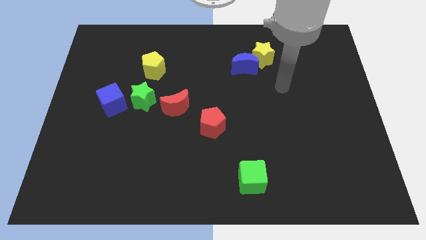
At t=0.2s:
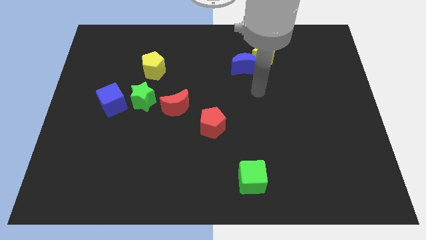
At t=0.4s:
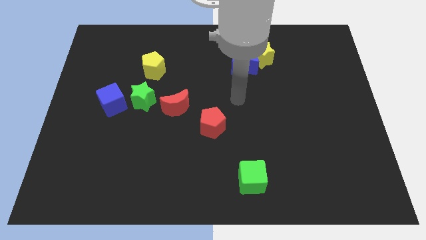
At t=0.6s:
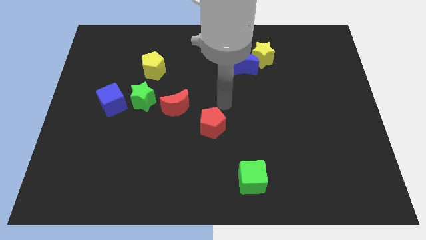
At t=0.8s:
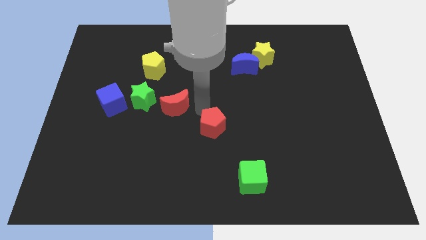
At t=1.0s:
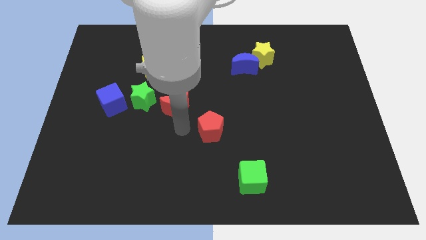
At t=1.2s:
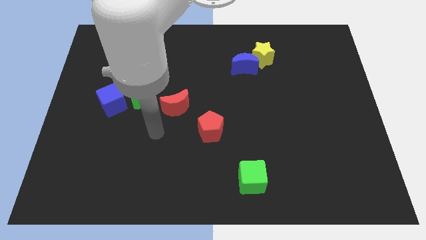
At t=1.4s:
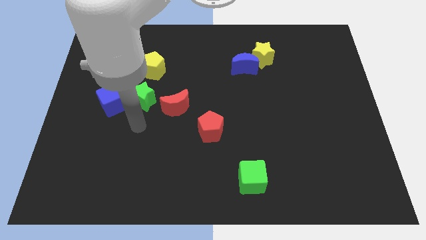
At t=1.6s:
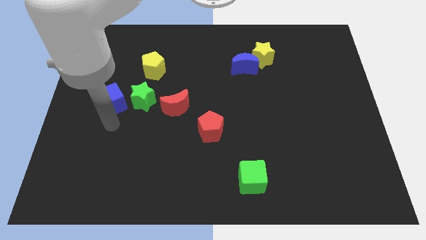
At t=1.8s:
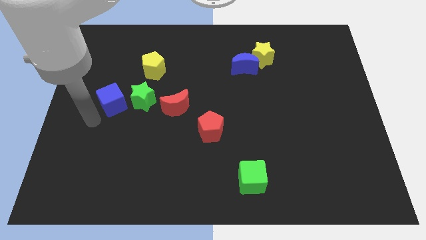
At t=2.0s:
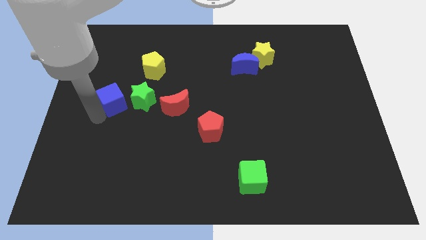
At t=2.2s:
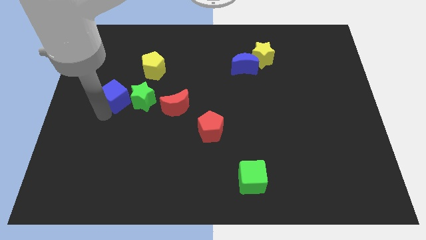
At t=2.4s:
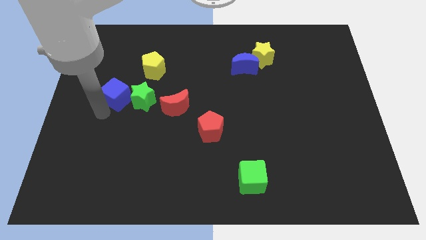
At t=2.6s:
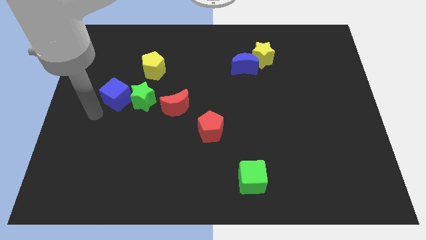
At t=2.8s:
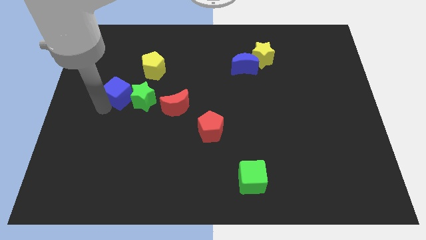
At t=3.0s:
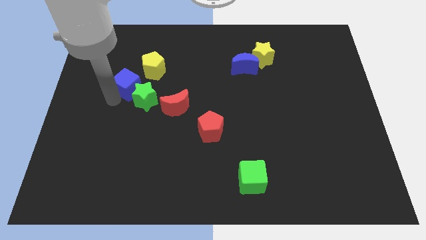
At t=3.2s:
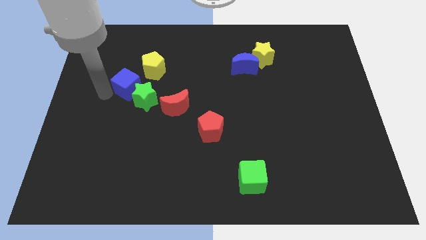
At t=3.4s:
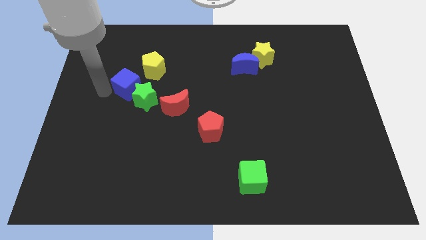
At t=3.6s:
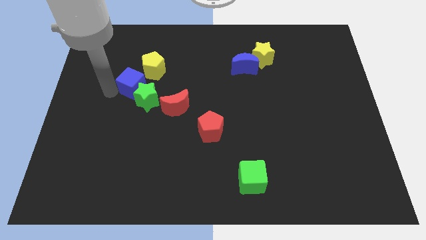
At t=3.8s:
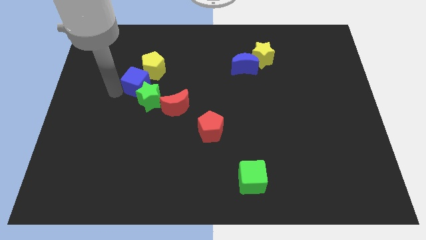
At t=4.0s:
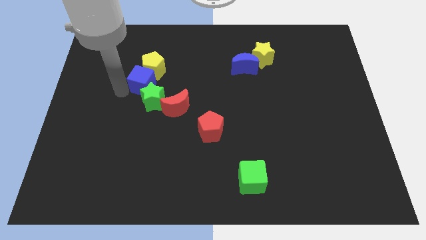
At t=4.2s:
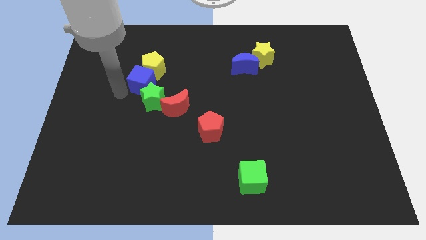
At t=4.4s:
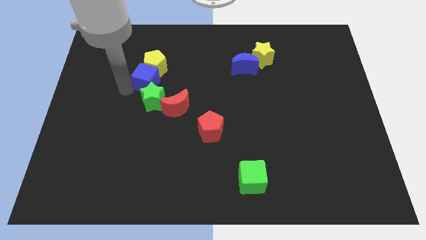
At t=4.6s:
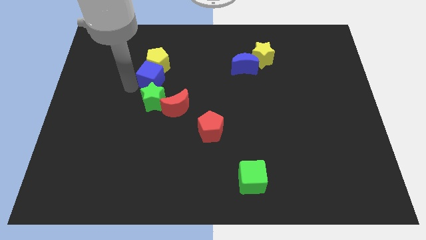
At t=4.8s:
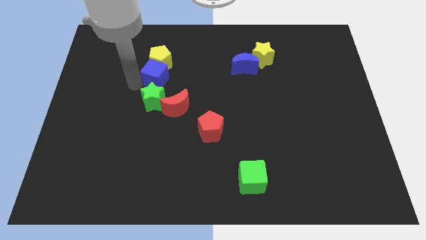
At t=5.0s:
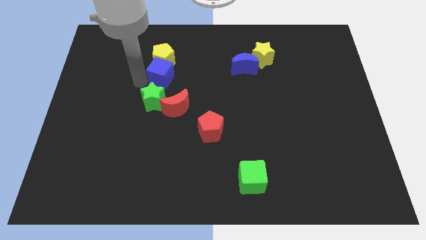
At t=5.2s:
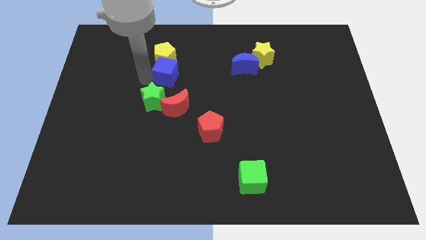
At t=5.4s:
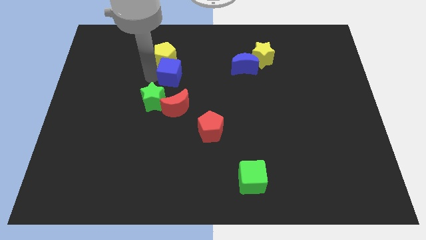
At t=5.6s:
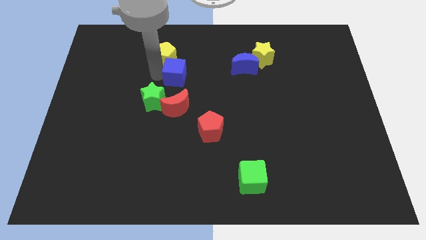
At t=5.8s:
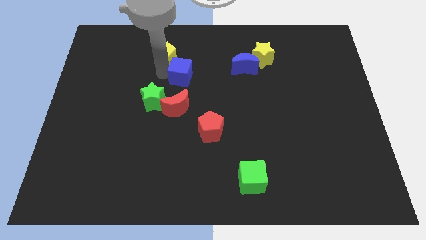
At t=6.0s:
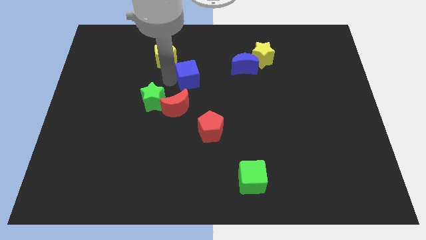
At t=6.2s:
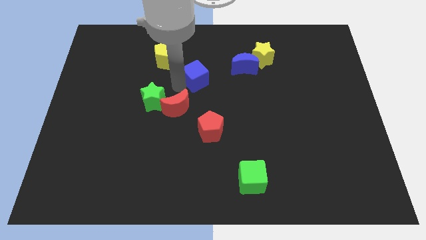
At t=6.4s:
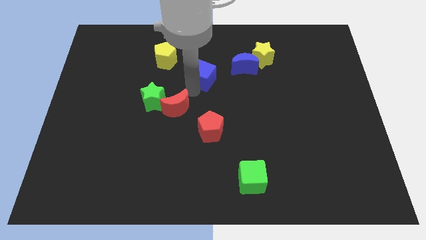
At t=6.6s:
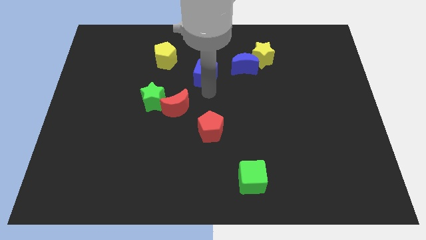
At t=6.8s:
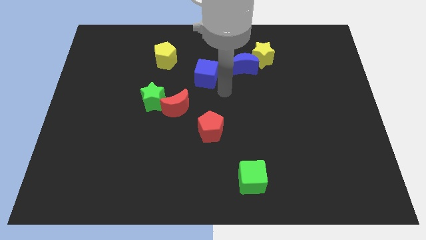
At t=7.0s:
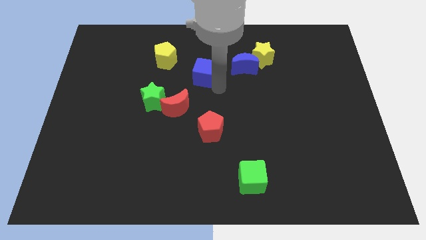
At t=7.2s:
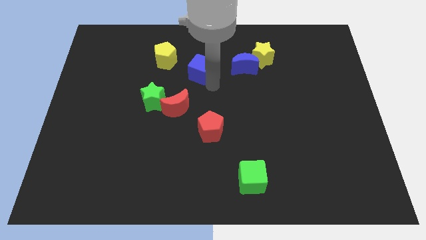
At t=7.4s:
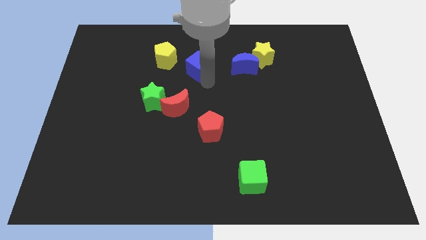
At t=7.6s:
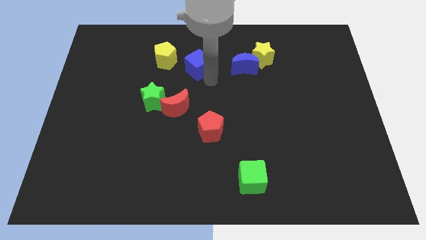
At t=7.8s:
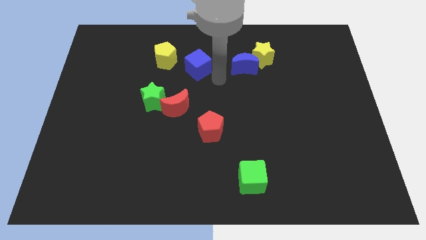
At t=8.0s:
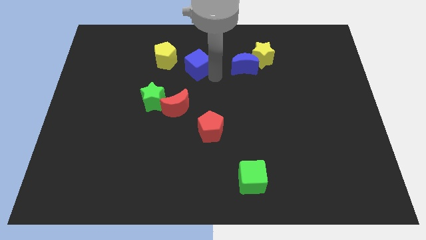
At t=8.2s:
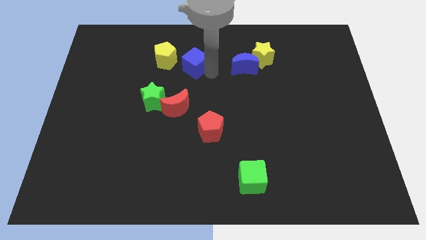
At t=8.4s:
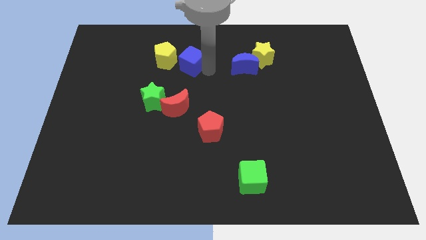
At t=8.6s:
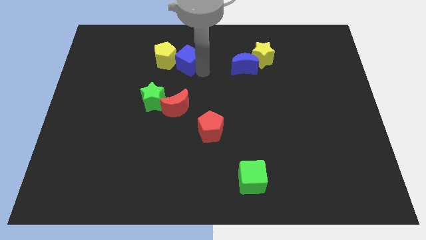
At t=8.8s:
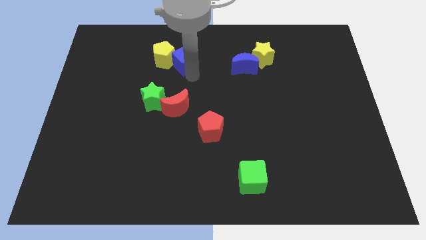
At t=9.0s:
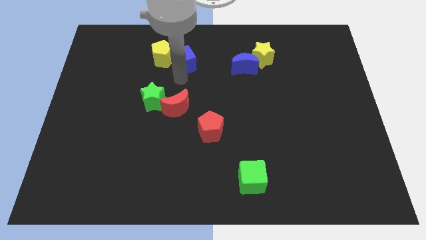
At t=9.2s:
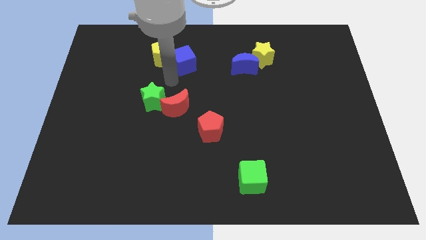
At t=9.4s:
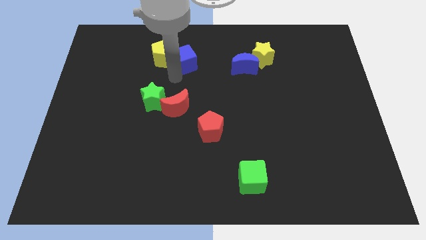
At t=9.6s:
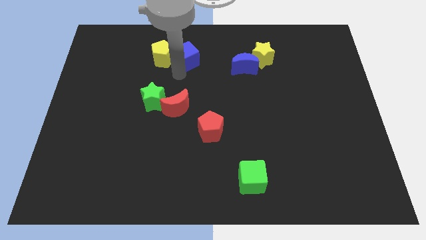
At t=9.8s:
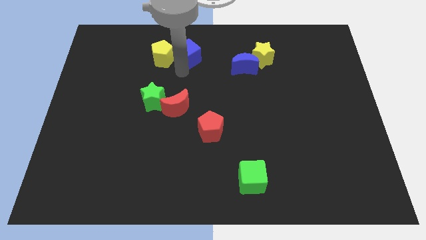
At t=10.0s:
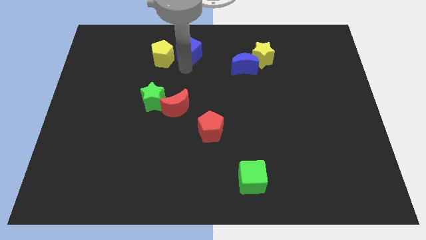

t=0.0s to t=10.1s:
slide the blue cube to the towards your base

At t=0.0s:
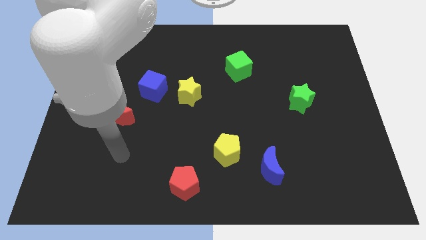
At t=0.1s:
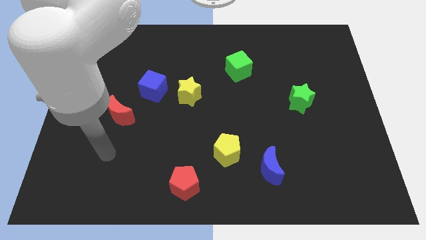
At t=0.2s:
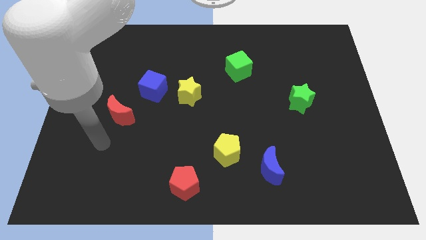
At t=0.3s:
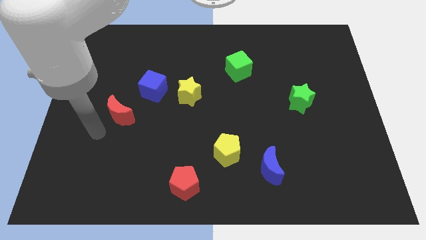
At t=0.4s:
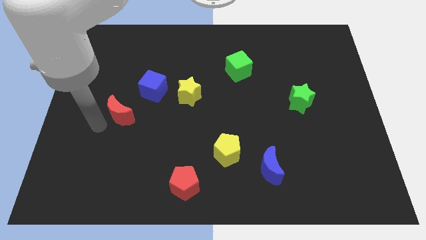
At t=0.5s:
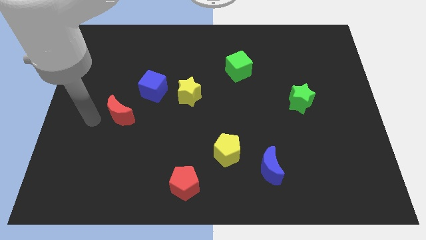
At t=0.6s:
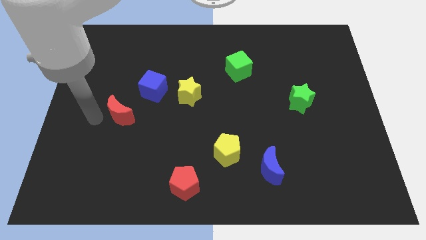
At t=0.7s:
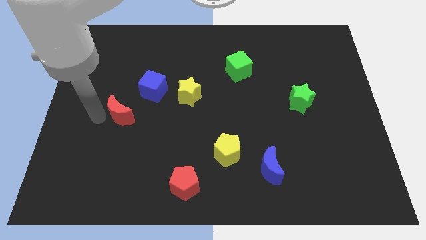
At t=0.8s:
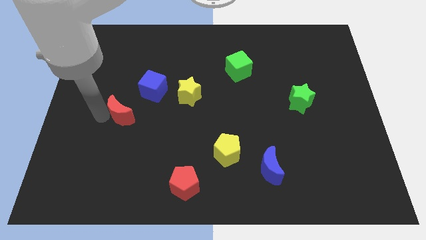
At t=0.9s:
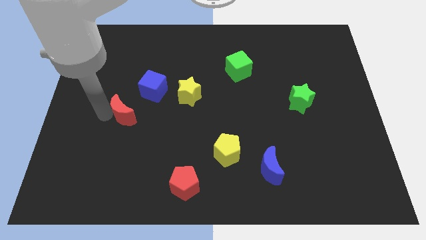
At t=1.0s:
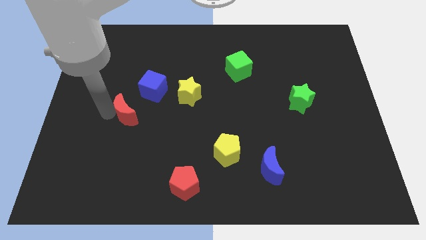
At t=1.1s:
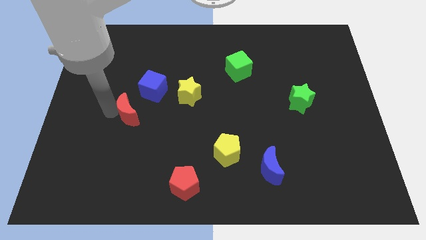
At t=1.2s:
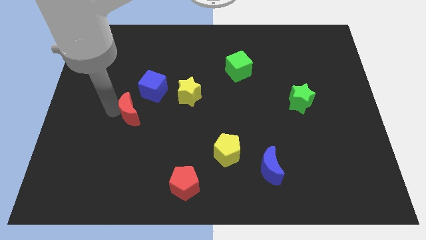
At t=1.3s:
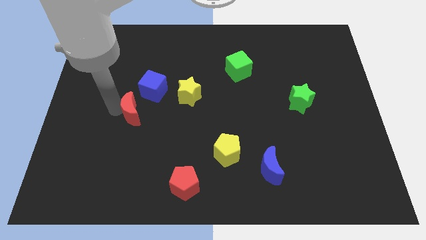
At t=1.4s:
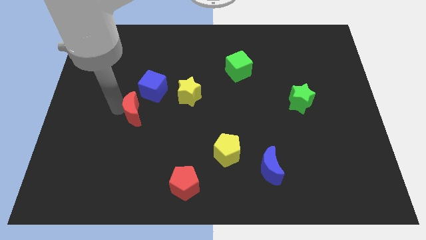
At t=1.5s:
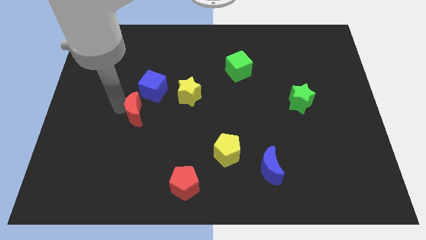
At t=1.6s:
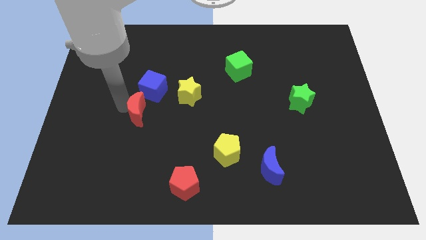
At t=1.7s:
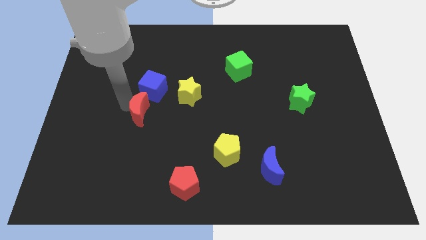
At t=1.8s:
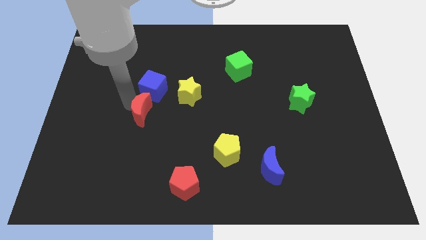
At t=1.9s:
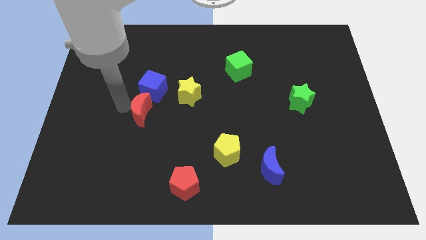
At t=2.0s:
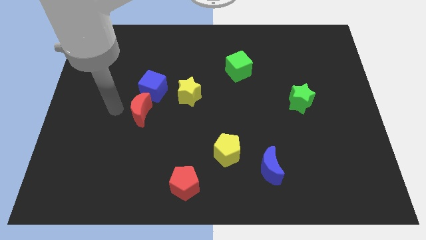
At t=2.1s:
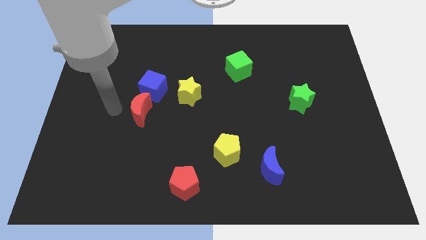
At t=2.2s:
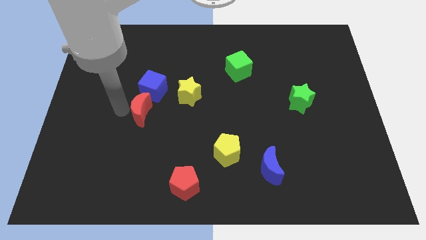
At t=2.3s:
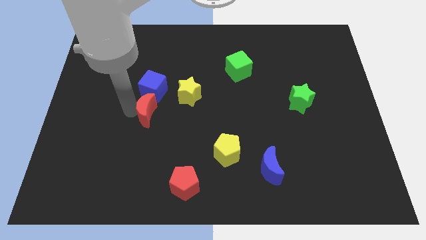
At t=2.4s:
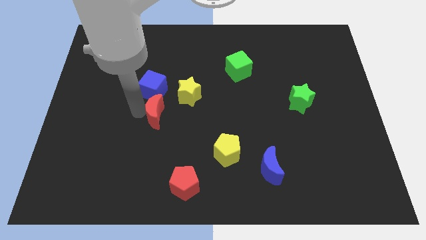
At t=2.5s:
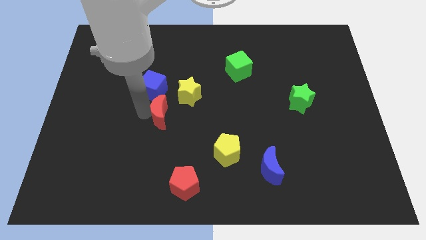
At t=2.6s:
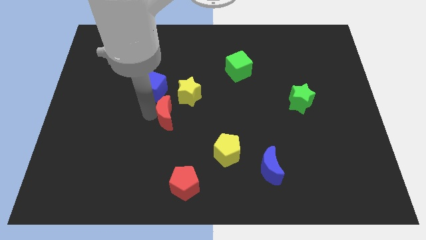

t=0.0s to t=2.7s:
slide the red moon to the center
